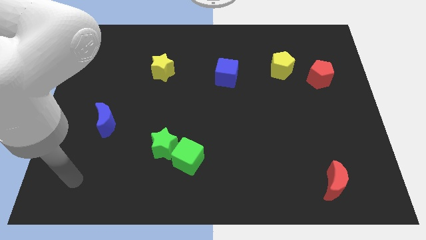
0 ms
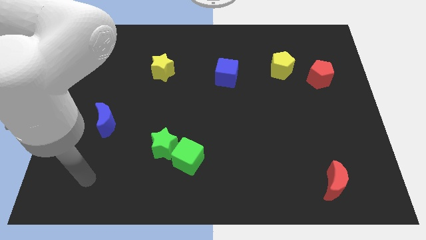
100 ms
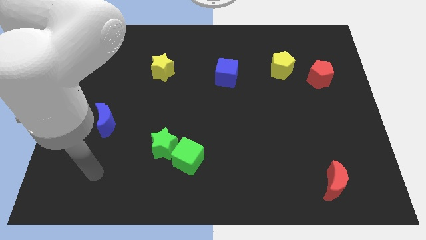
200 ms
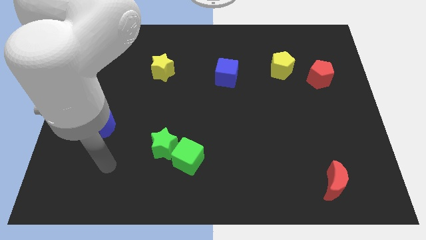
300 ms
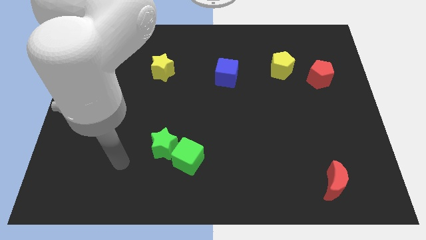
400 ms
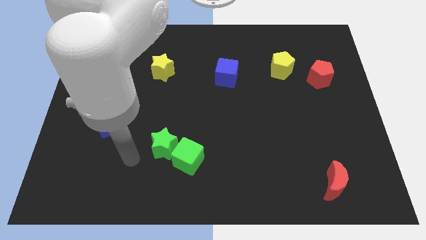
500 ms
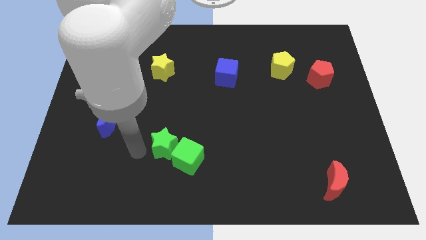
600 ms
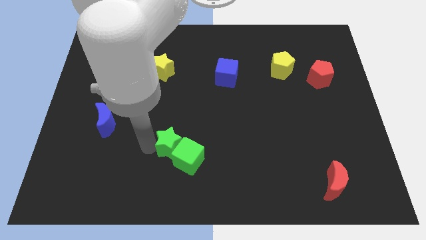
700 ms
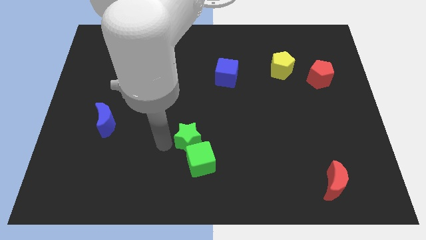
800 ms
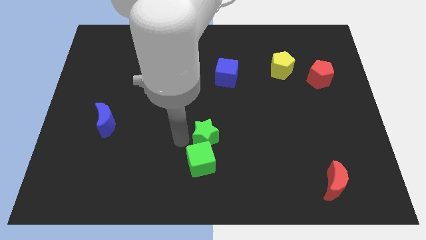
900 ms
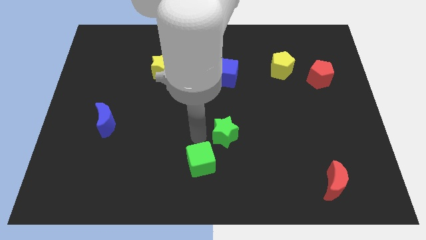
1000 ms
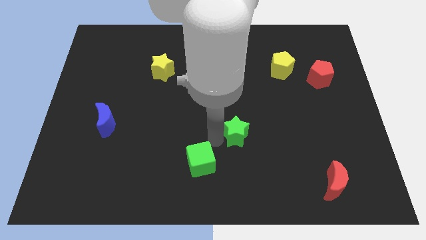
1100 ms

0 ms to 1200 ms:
separate the green cube from the green star

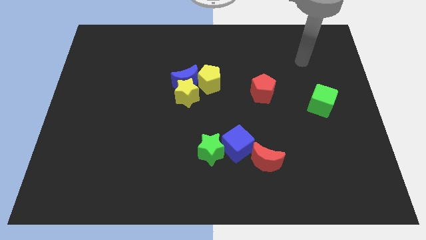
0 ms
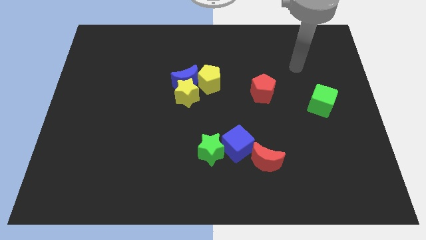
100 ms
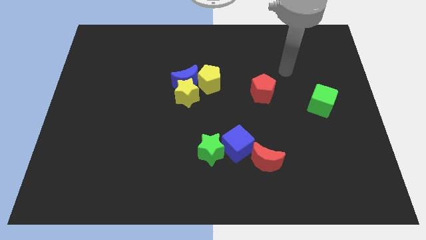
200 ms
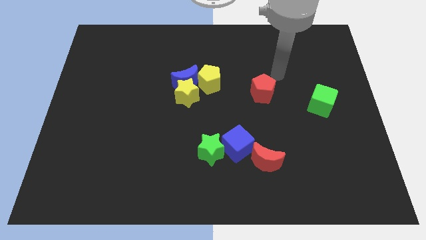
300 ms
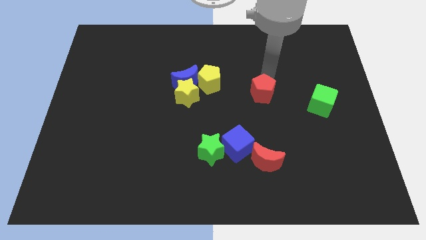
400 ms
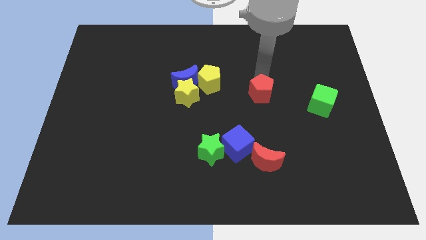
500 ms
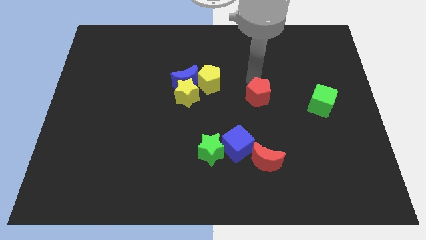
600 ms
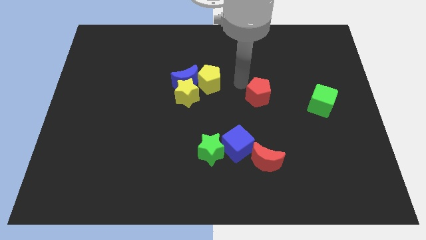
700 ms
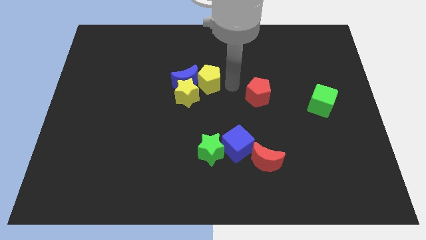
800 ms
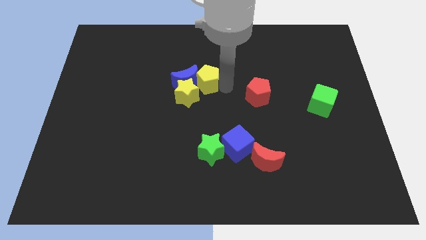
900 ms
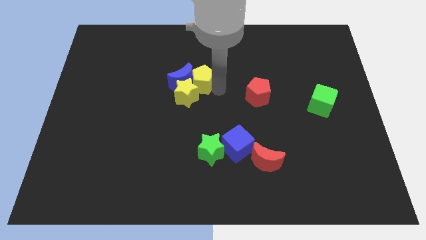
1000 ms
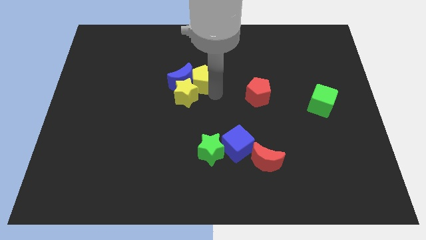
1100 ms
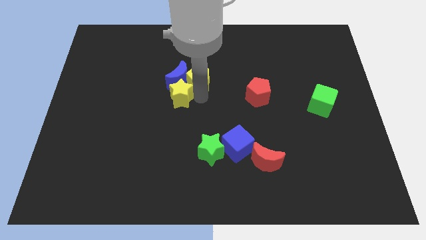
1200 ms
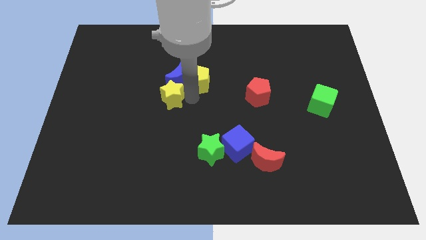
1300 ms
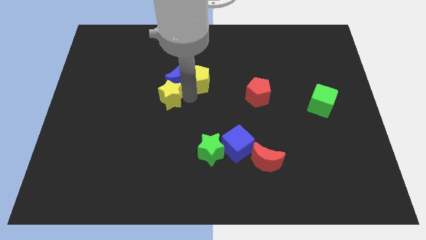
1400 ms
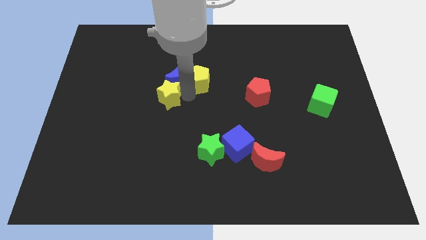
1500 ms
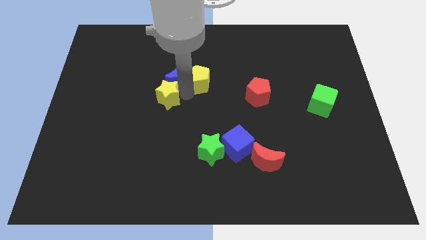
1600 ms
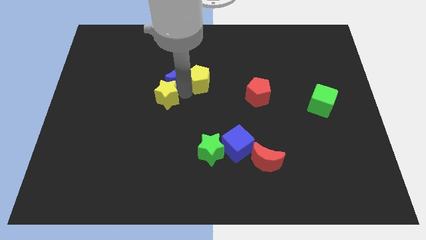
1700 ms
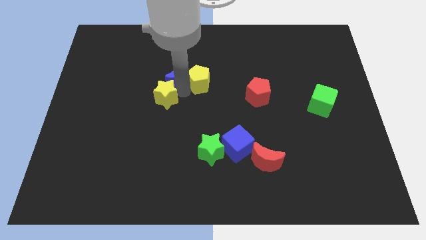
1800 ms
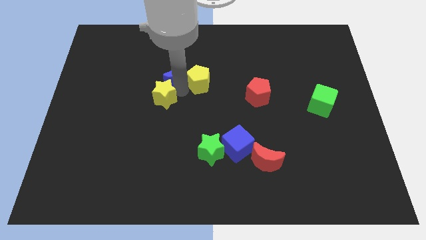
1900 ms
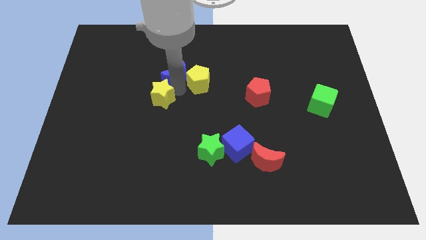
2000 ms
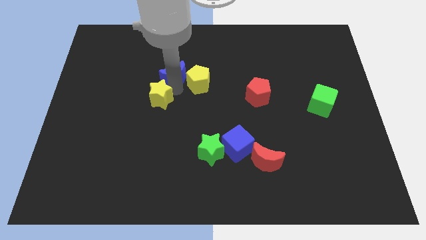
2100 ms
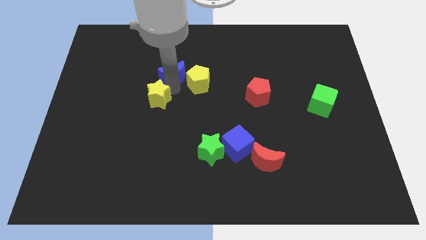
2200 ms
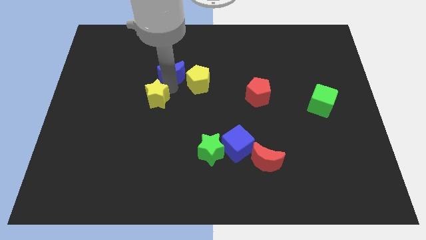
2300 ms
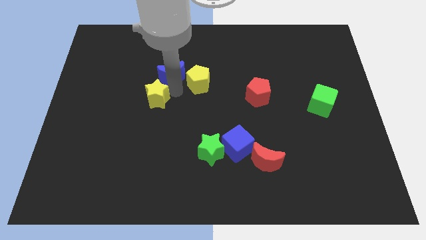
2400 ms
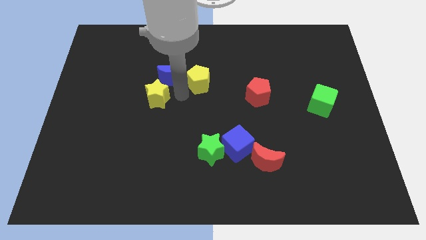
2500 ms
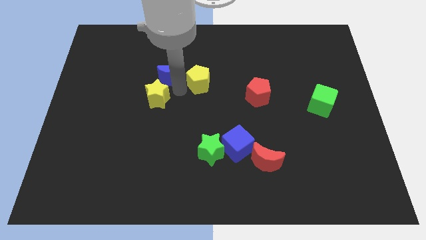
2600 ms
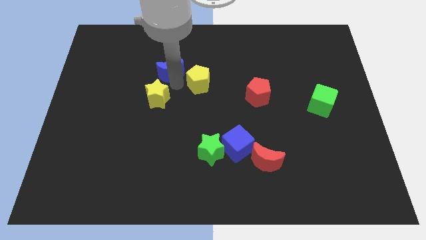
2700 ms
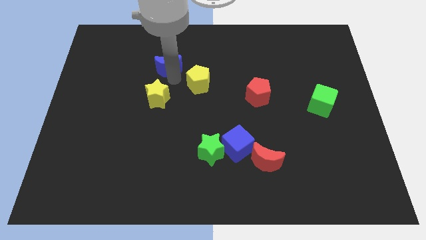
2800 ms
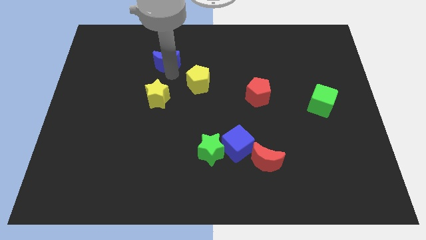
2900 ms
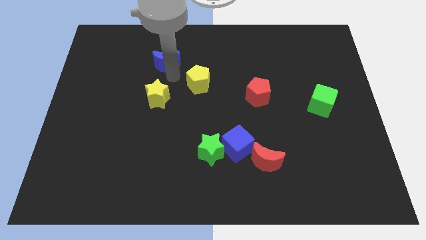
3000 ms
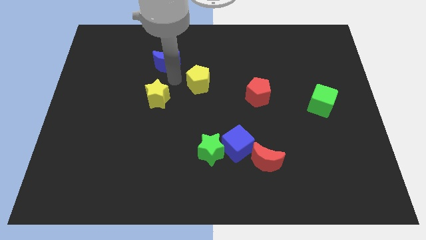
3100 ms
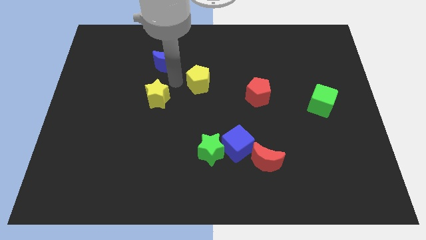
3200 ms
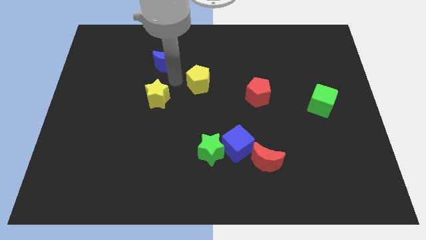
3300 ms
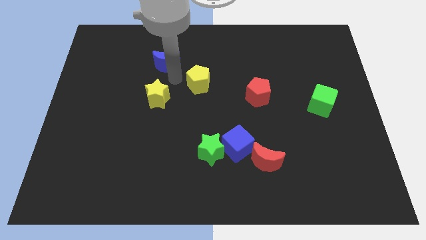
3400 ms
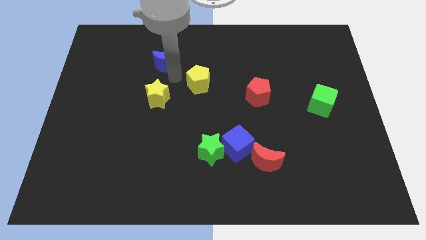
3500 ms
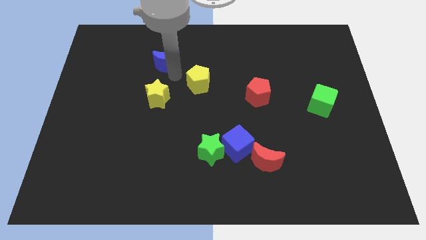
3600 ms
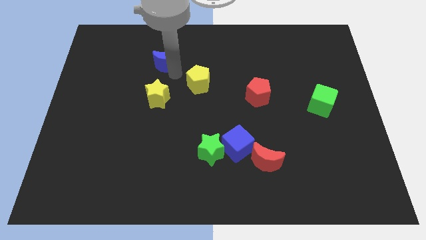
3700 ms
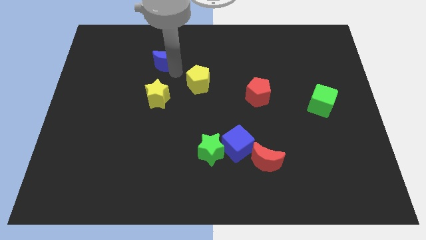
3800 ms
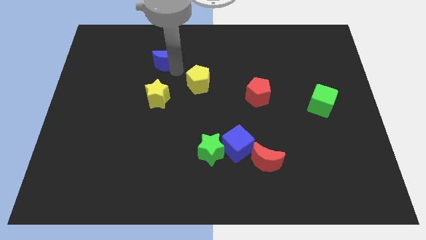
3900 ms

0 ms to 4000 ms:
separate the blue moon from the yellow star and yellow pentagon

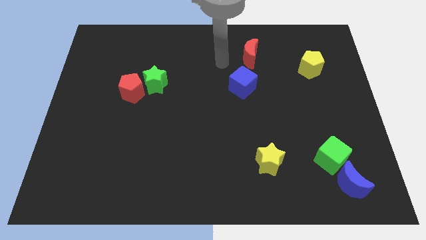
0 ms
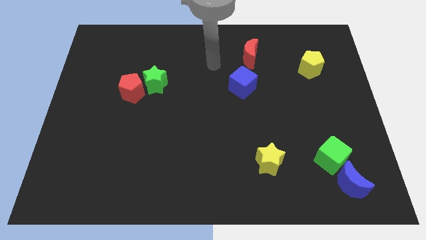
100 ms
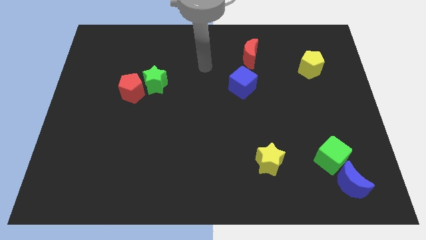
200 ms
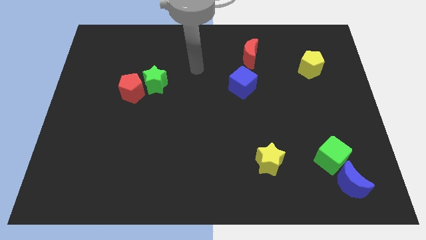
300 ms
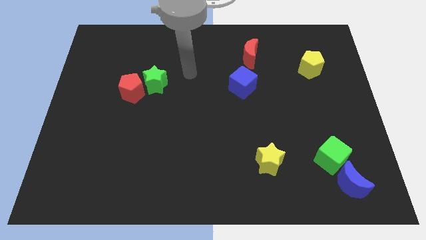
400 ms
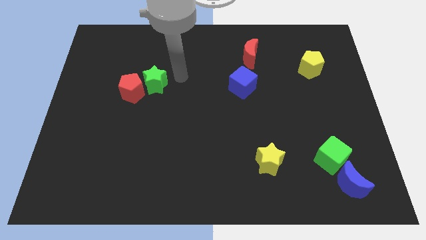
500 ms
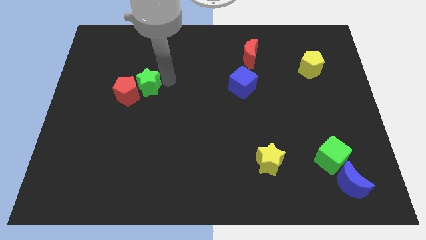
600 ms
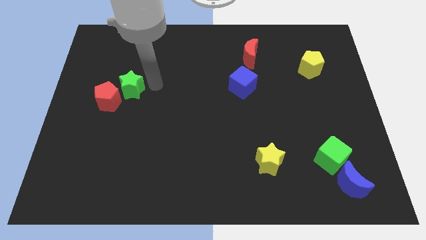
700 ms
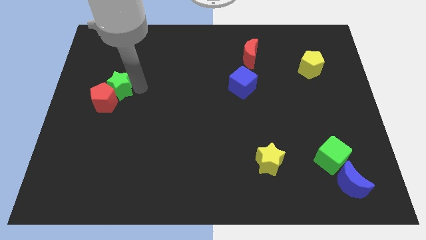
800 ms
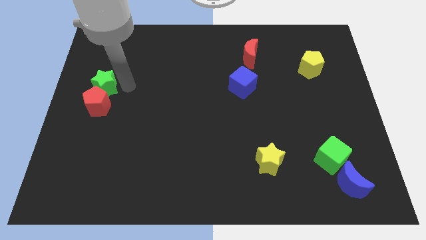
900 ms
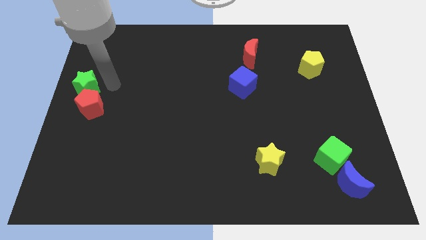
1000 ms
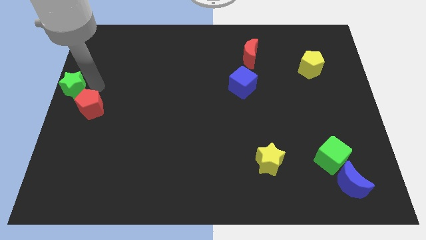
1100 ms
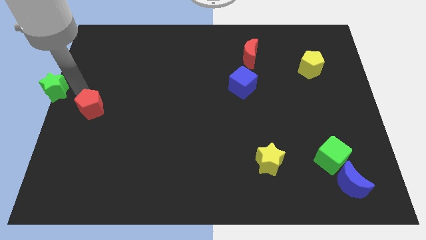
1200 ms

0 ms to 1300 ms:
separate the red pentagon from the green star

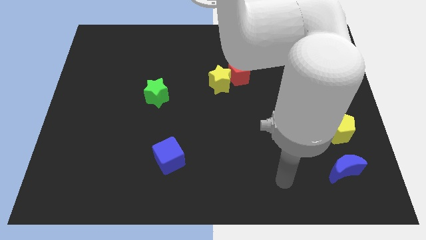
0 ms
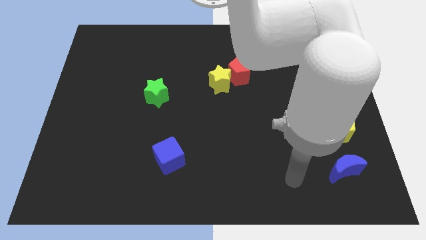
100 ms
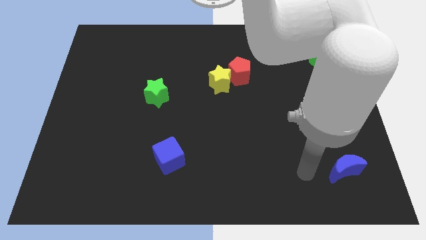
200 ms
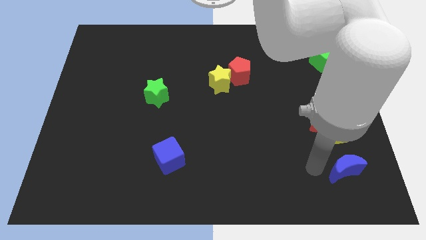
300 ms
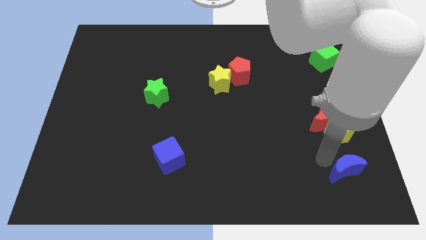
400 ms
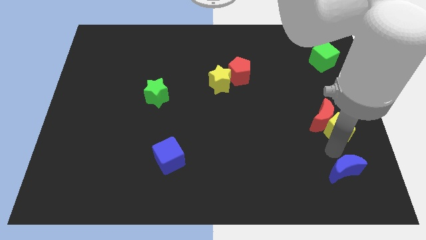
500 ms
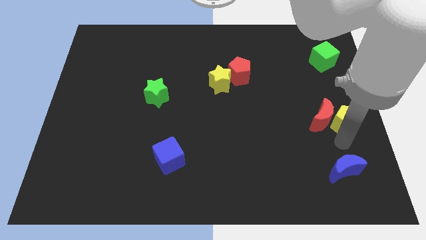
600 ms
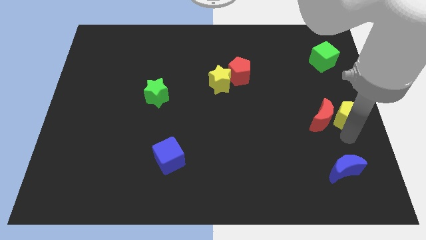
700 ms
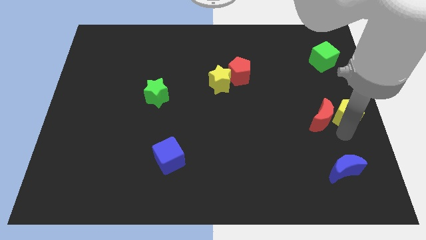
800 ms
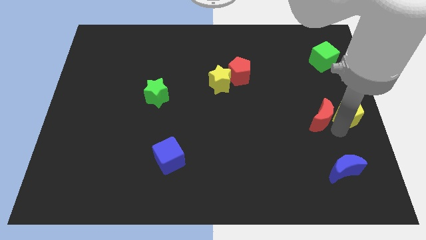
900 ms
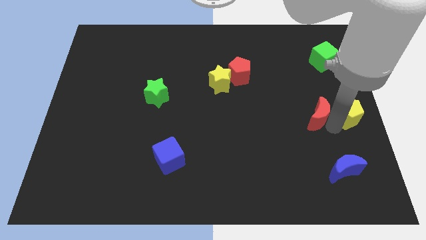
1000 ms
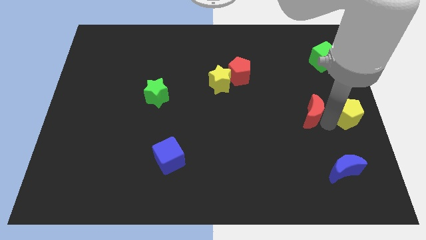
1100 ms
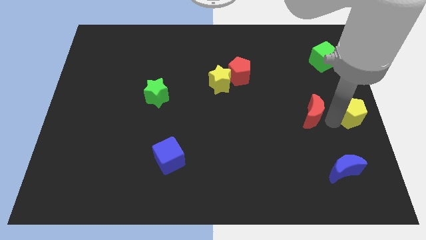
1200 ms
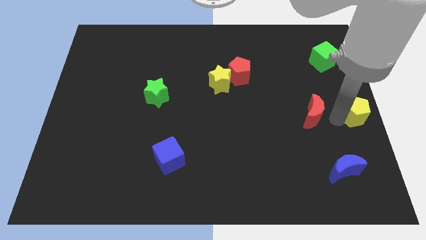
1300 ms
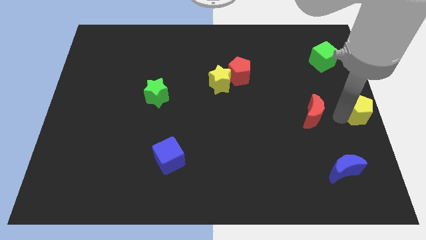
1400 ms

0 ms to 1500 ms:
pull the red moon apart from the yellow pentagon

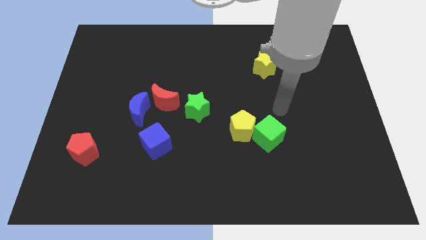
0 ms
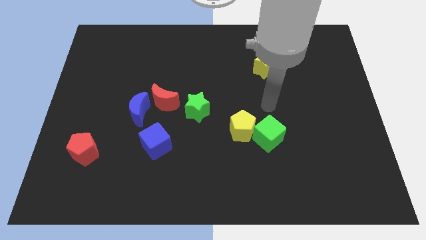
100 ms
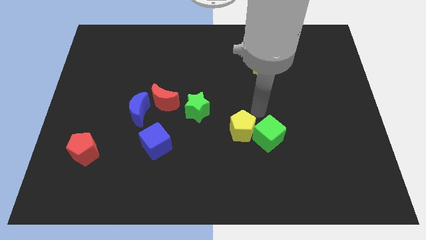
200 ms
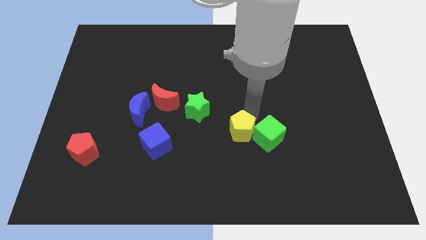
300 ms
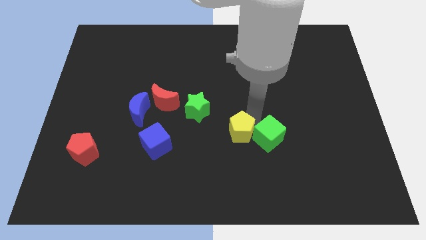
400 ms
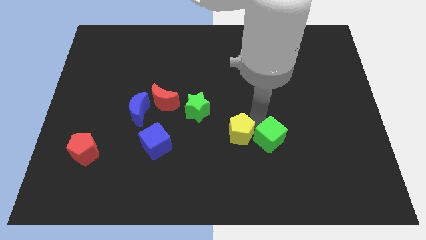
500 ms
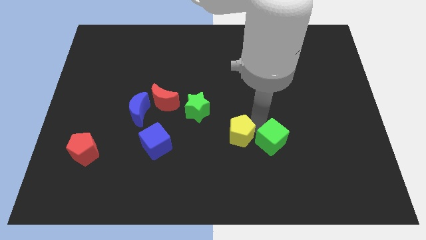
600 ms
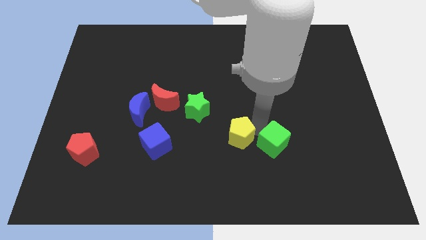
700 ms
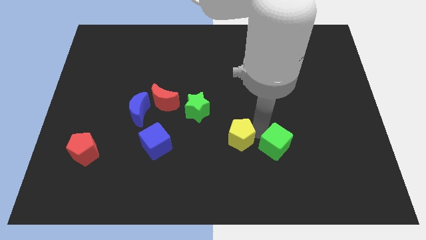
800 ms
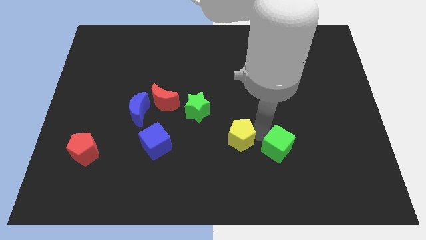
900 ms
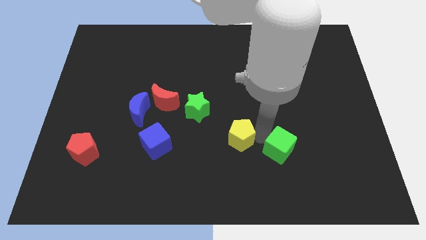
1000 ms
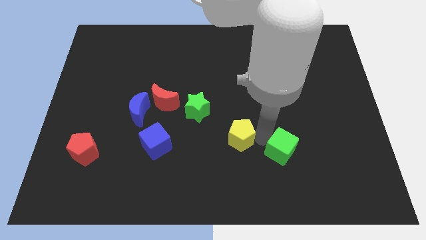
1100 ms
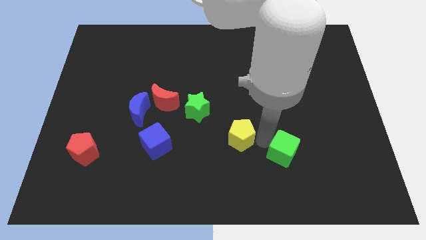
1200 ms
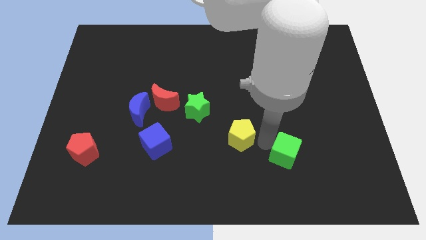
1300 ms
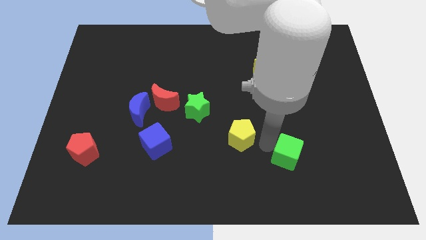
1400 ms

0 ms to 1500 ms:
move the green cube away from the yellow pentagon
